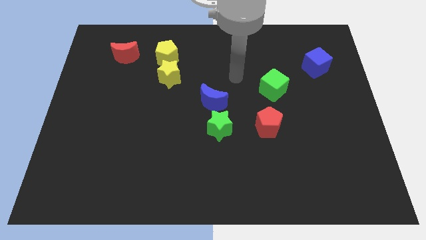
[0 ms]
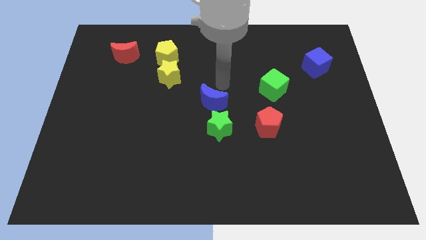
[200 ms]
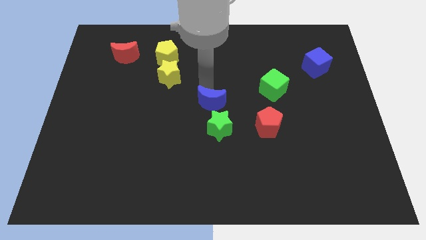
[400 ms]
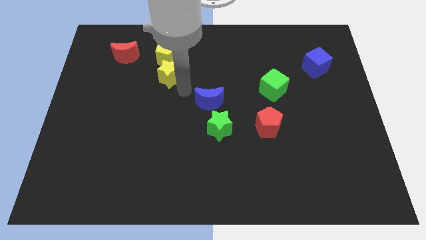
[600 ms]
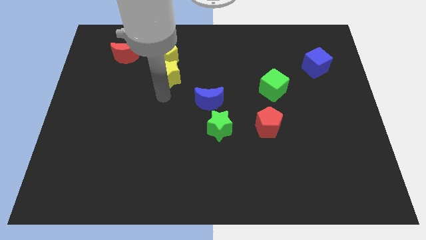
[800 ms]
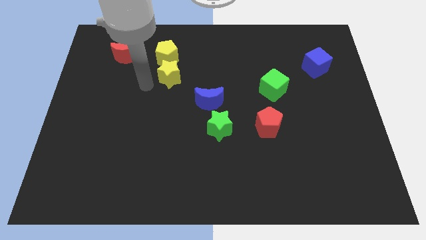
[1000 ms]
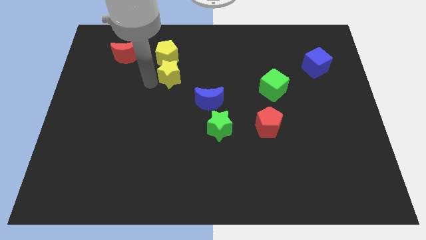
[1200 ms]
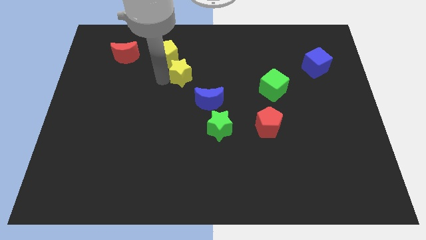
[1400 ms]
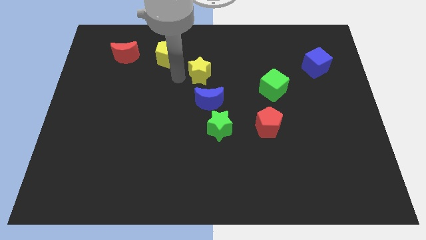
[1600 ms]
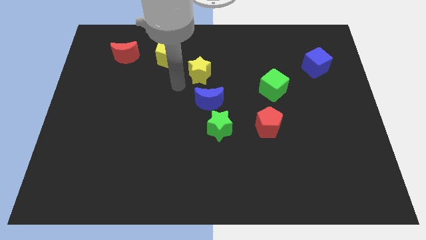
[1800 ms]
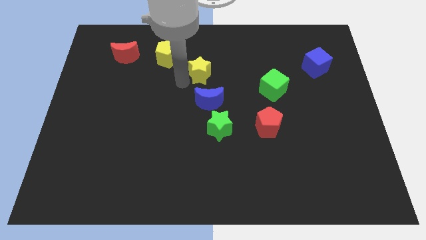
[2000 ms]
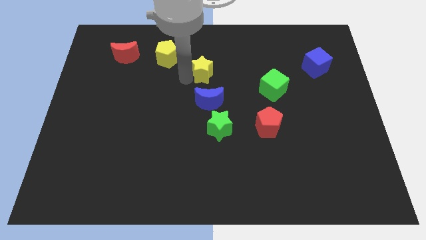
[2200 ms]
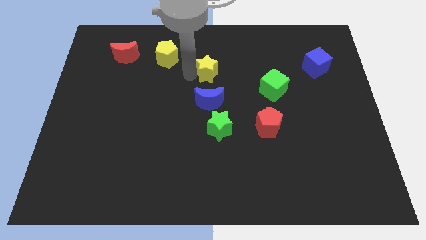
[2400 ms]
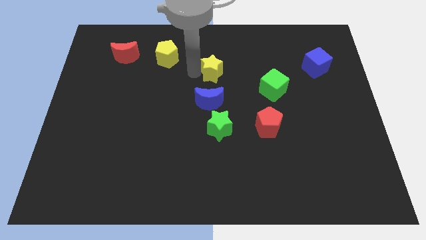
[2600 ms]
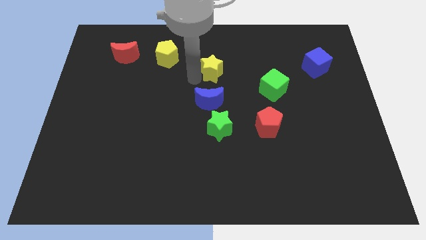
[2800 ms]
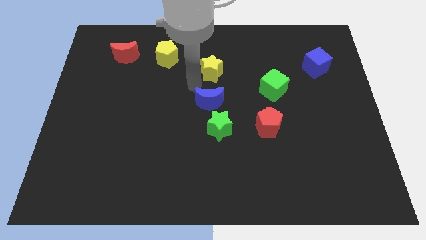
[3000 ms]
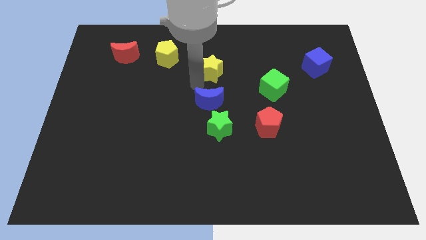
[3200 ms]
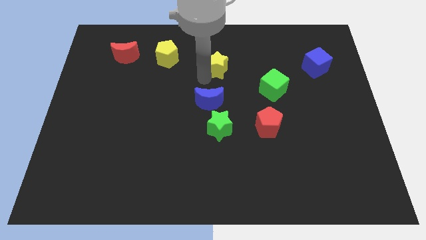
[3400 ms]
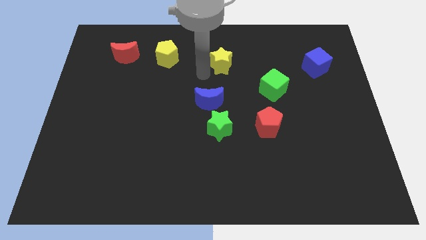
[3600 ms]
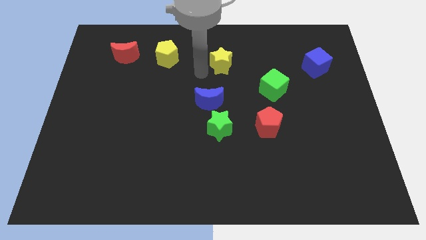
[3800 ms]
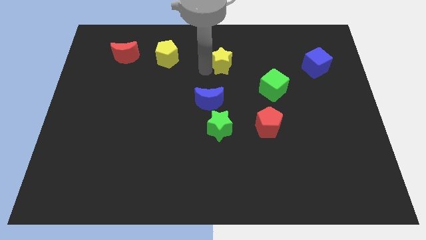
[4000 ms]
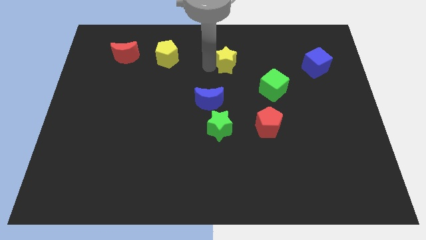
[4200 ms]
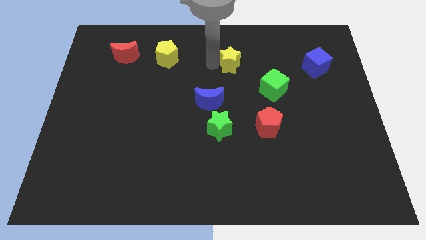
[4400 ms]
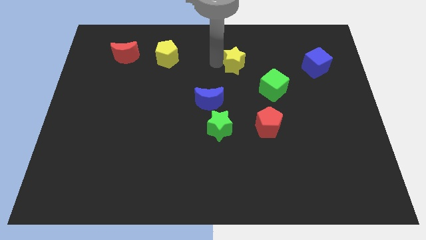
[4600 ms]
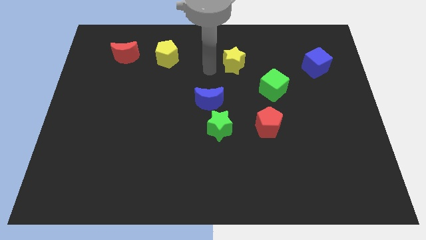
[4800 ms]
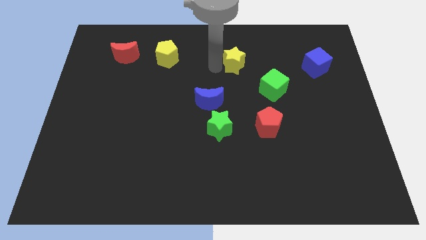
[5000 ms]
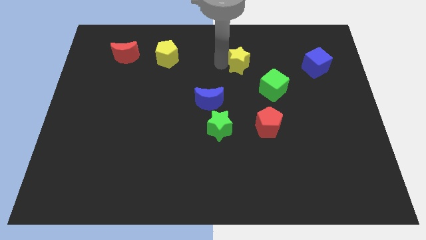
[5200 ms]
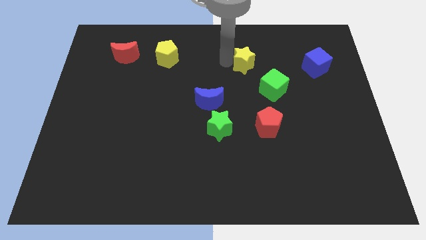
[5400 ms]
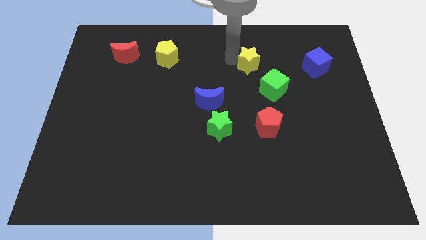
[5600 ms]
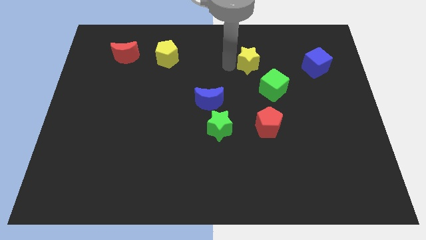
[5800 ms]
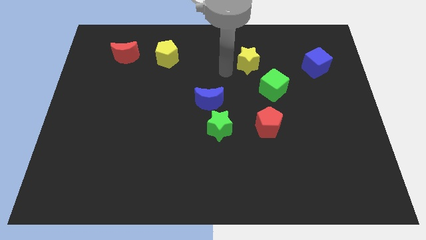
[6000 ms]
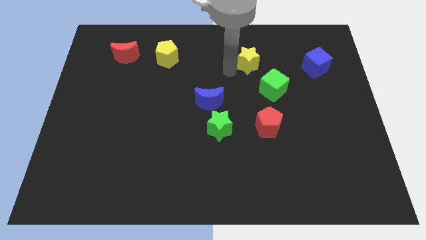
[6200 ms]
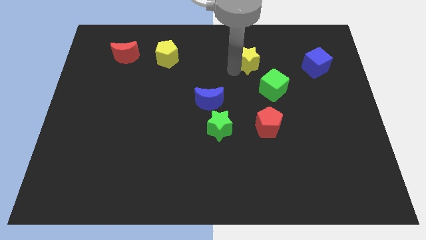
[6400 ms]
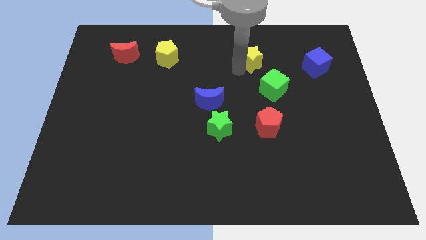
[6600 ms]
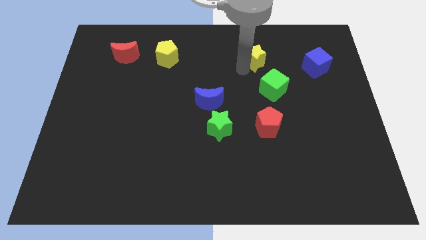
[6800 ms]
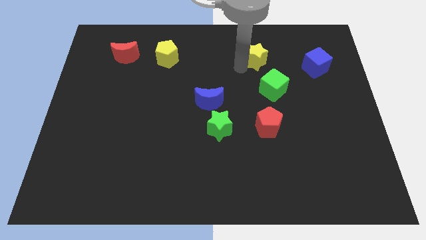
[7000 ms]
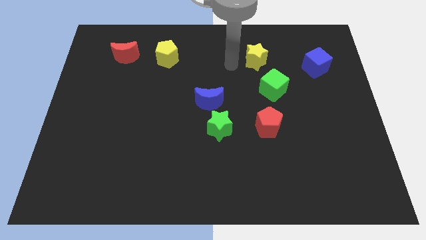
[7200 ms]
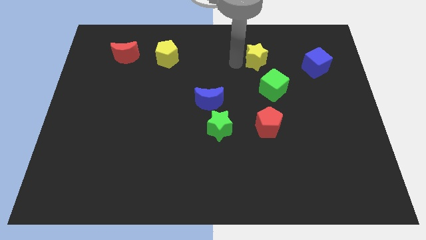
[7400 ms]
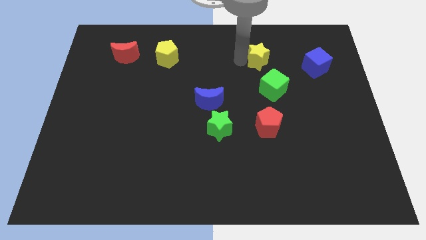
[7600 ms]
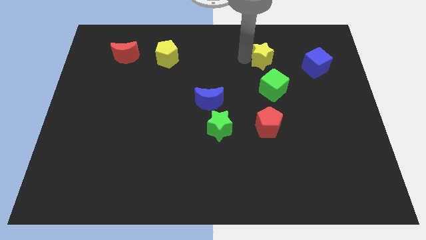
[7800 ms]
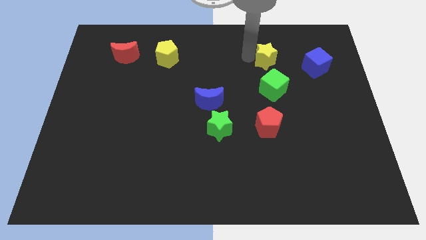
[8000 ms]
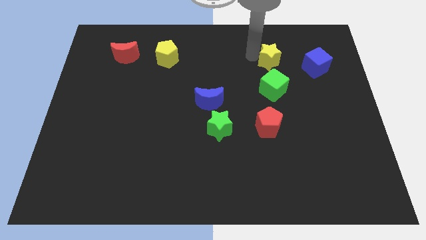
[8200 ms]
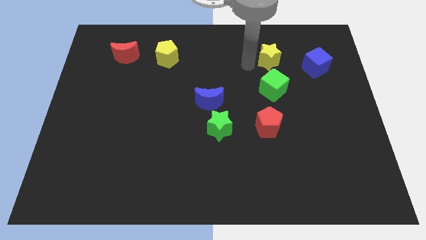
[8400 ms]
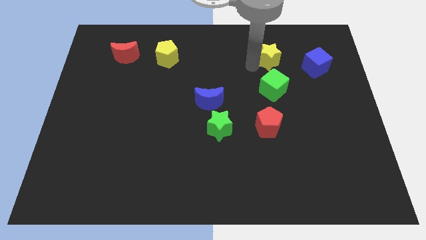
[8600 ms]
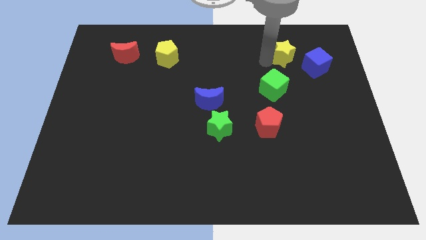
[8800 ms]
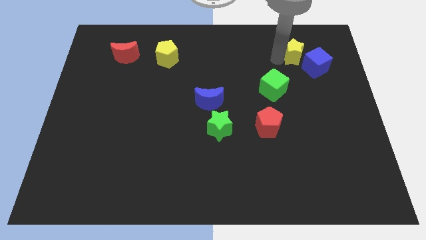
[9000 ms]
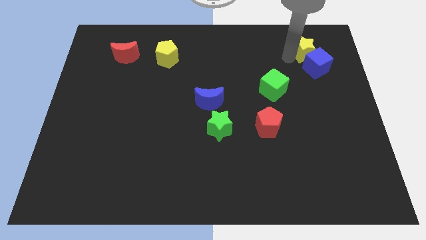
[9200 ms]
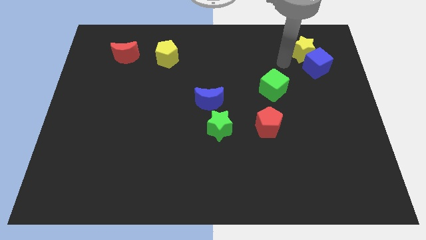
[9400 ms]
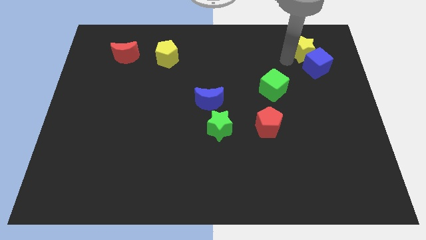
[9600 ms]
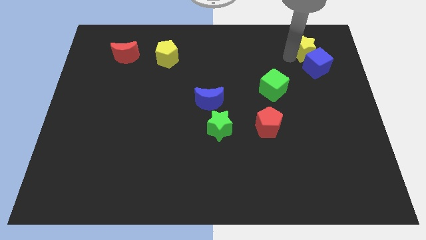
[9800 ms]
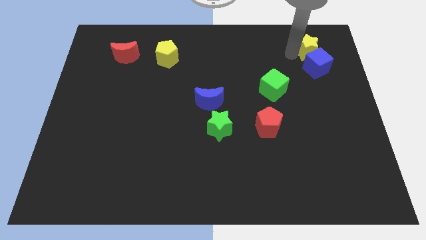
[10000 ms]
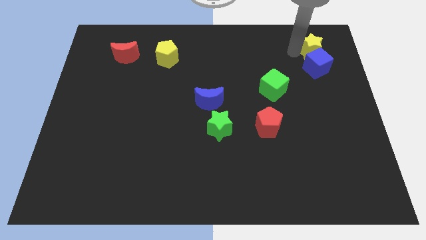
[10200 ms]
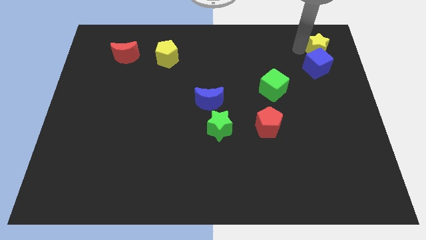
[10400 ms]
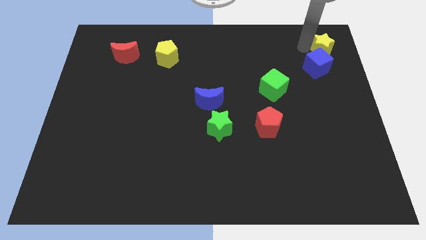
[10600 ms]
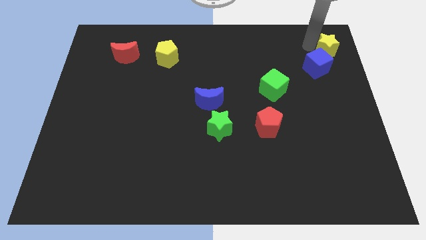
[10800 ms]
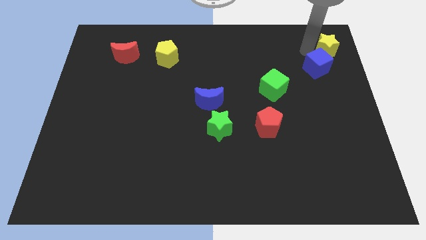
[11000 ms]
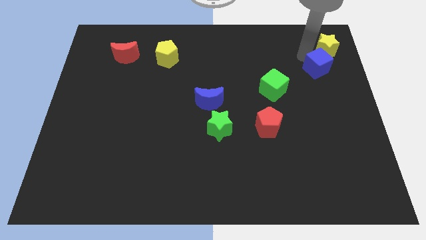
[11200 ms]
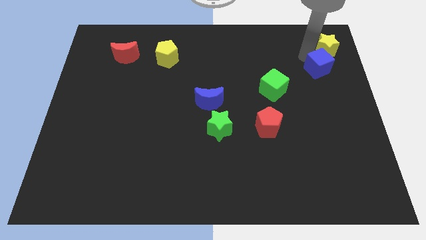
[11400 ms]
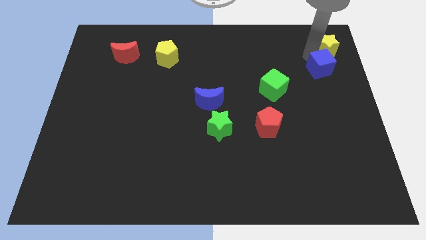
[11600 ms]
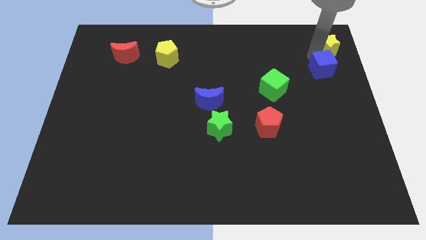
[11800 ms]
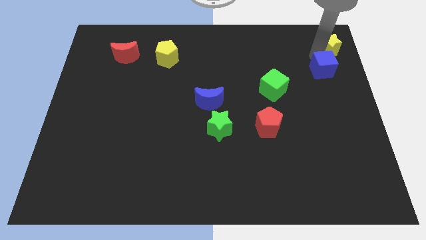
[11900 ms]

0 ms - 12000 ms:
slide the yellow star to the upper right corner
